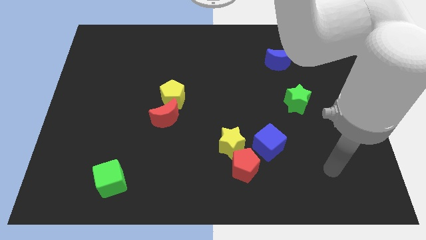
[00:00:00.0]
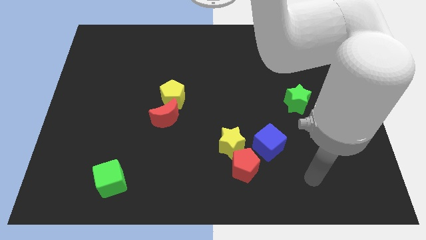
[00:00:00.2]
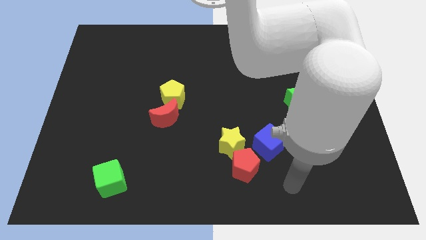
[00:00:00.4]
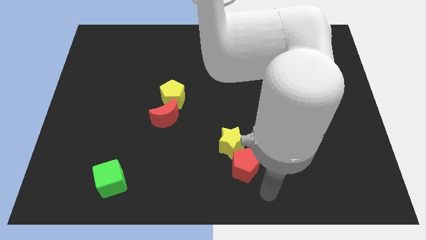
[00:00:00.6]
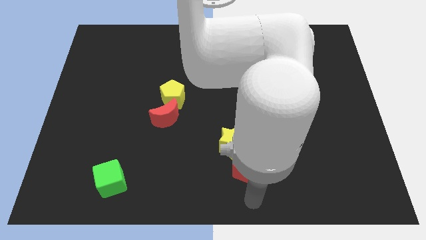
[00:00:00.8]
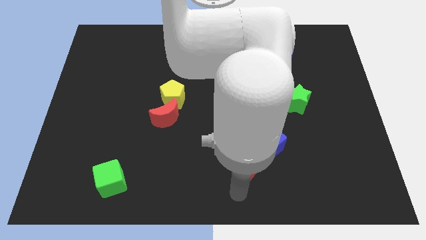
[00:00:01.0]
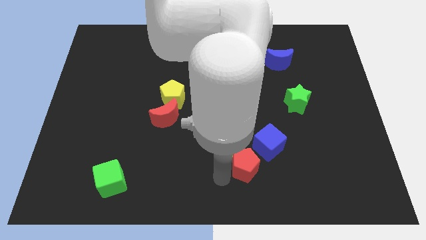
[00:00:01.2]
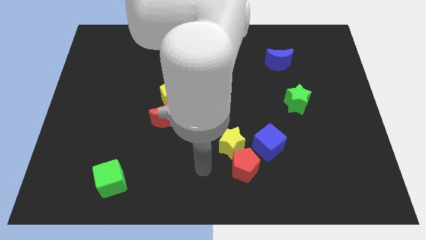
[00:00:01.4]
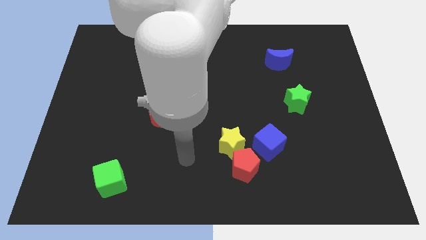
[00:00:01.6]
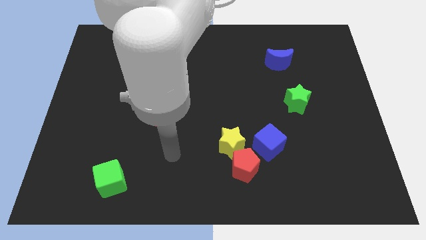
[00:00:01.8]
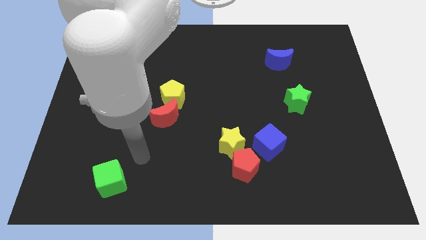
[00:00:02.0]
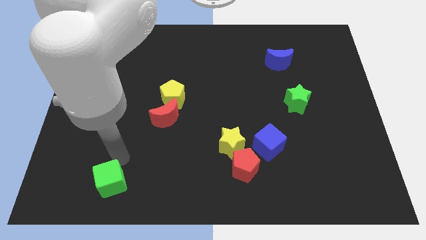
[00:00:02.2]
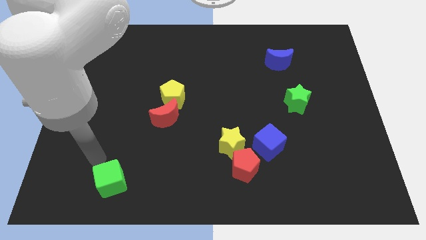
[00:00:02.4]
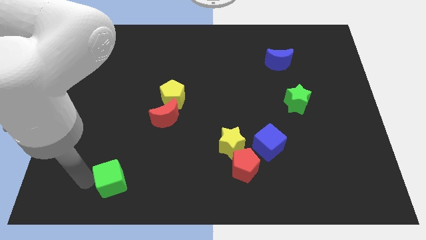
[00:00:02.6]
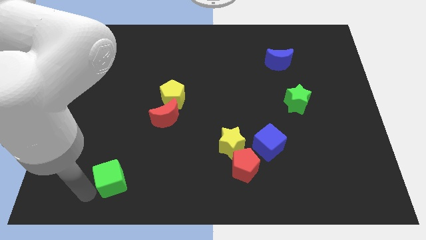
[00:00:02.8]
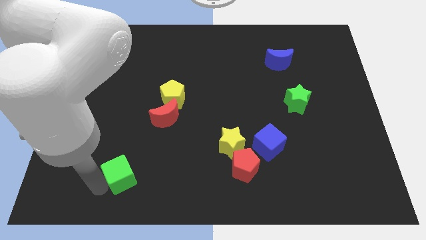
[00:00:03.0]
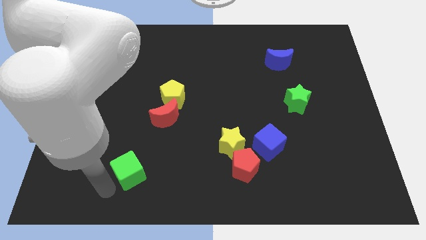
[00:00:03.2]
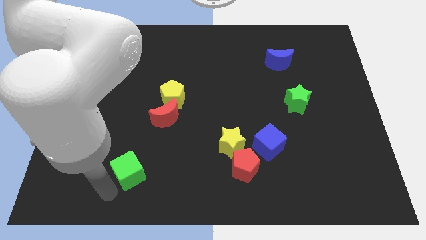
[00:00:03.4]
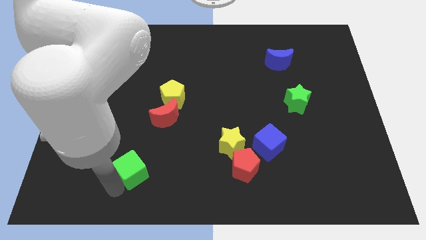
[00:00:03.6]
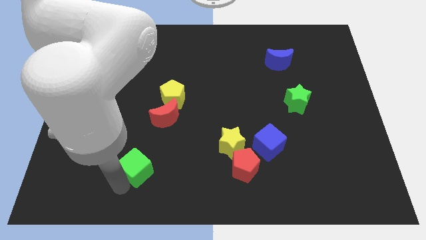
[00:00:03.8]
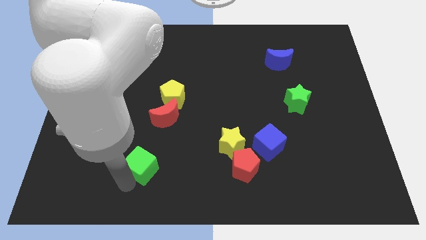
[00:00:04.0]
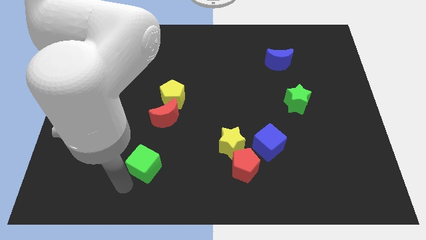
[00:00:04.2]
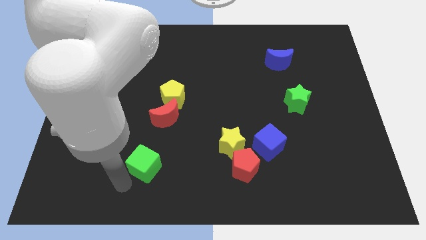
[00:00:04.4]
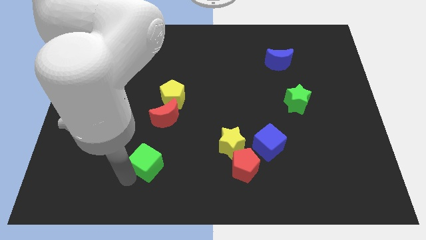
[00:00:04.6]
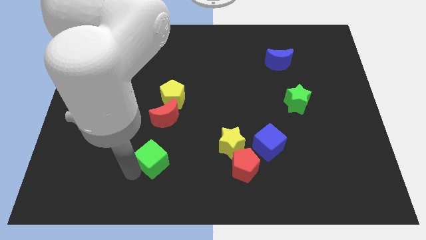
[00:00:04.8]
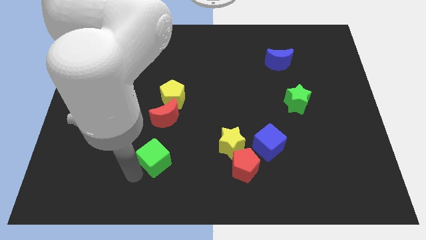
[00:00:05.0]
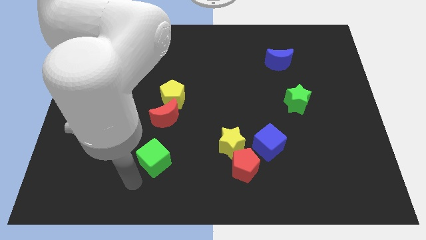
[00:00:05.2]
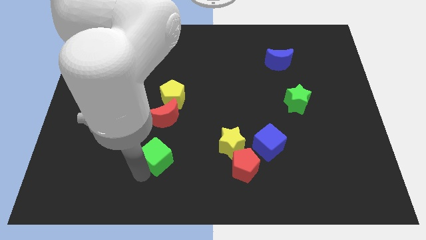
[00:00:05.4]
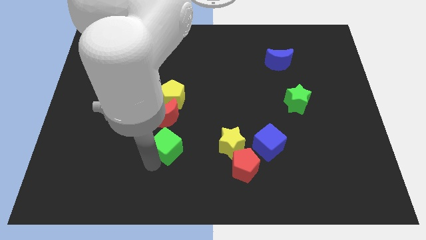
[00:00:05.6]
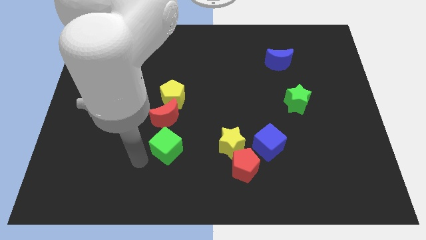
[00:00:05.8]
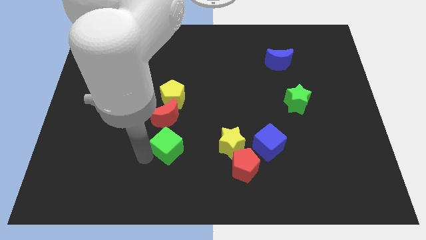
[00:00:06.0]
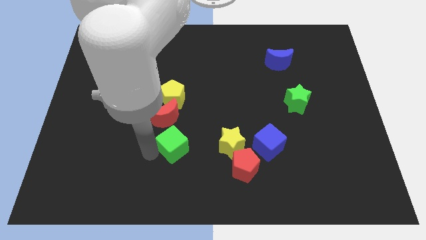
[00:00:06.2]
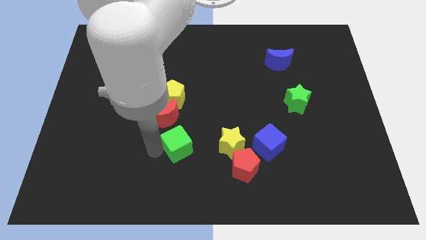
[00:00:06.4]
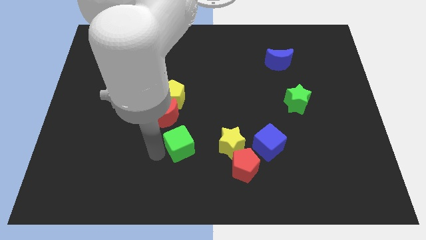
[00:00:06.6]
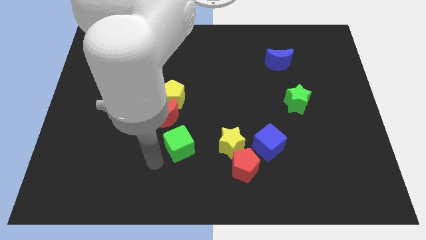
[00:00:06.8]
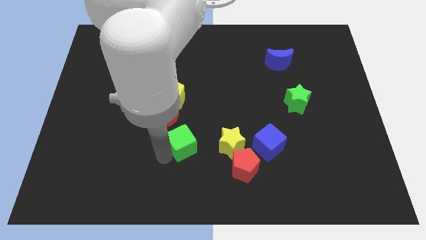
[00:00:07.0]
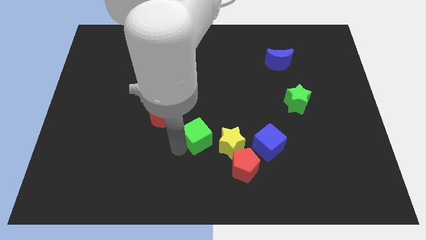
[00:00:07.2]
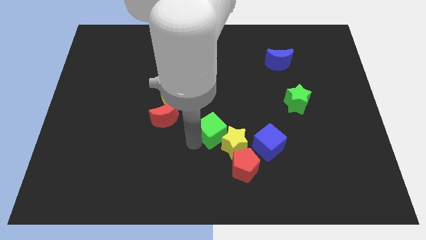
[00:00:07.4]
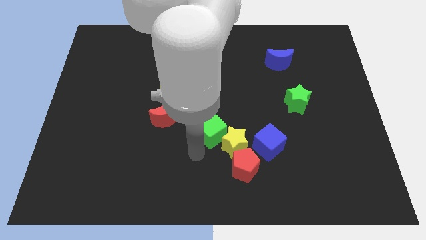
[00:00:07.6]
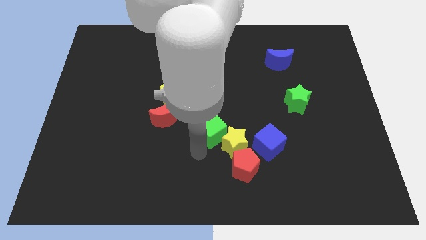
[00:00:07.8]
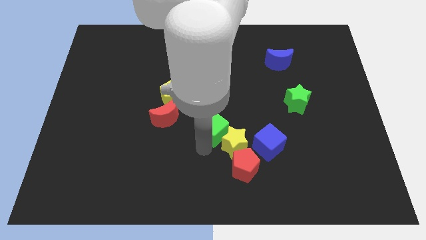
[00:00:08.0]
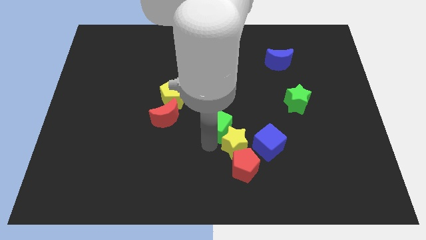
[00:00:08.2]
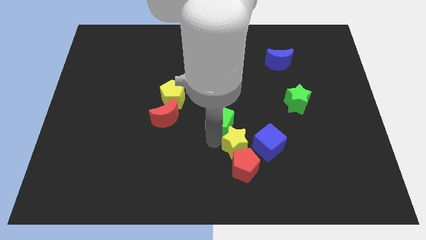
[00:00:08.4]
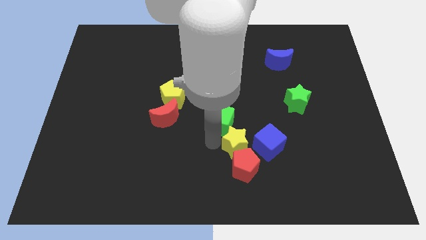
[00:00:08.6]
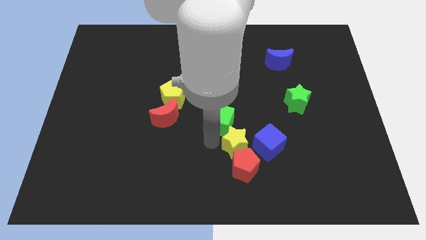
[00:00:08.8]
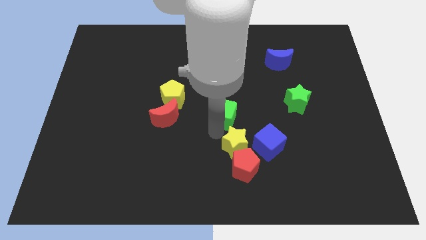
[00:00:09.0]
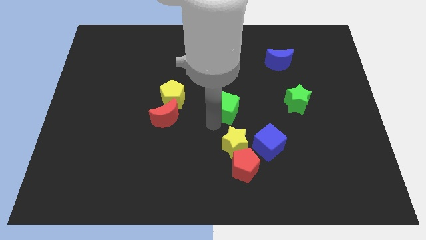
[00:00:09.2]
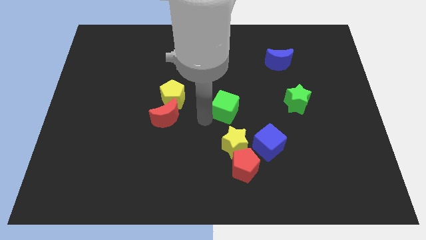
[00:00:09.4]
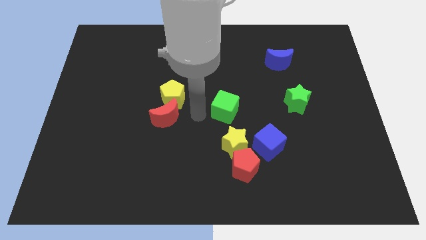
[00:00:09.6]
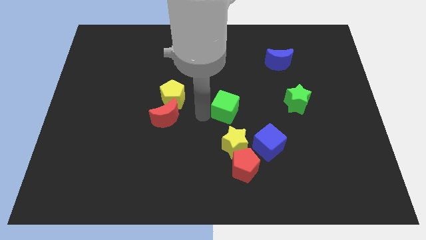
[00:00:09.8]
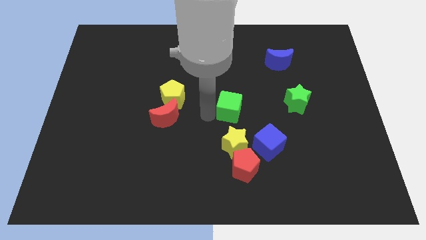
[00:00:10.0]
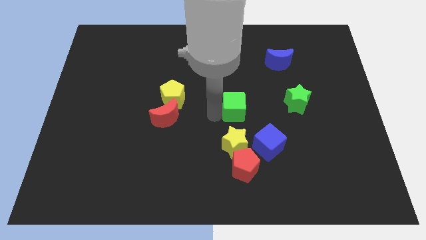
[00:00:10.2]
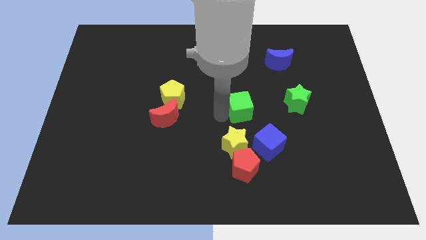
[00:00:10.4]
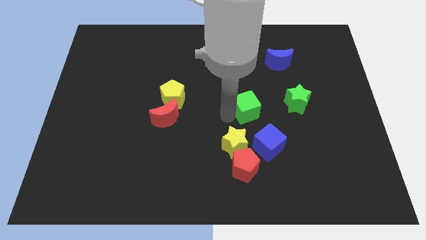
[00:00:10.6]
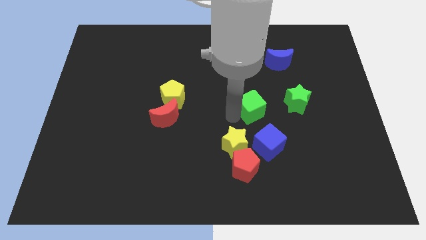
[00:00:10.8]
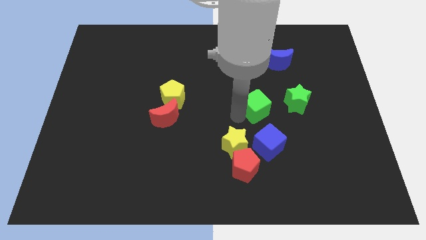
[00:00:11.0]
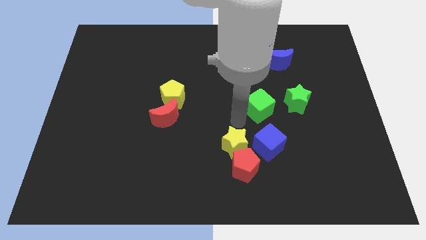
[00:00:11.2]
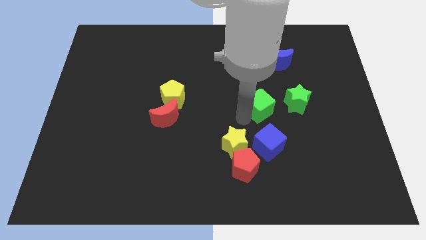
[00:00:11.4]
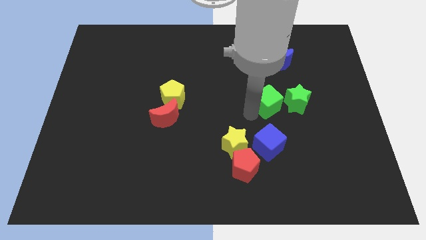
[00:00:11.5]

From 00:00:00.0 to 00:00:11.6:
slide the green cube to the bottom of the blue moon

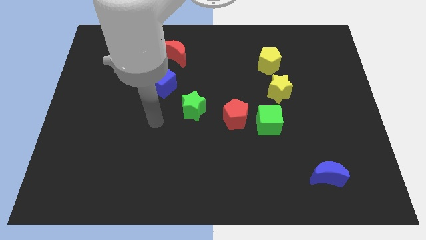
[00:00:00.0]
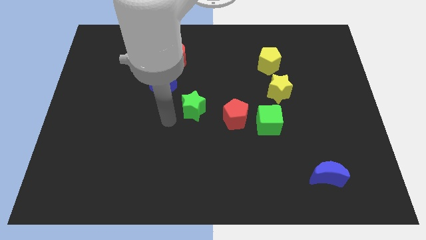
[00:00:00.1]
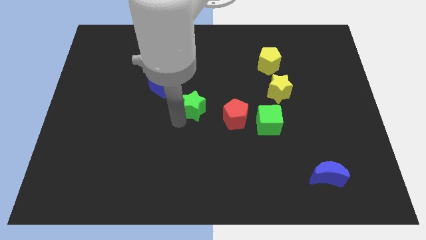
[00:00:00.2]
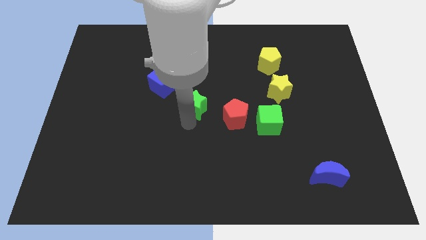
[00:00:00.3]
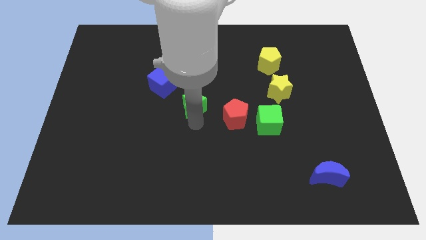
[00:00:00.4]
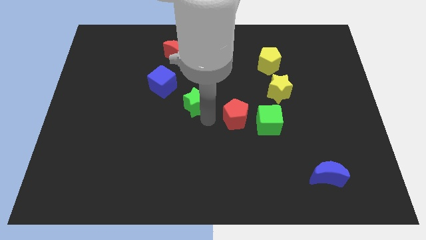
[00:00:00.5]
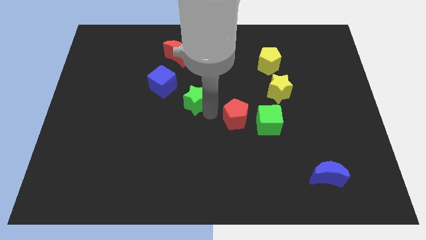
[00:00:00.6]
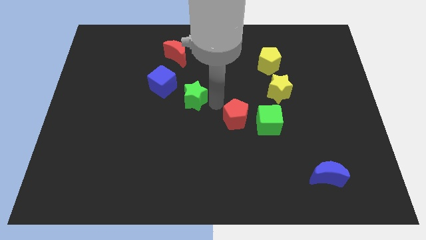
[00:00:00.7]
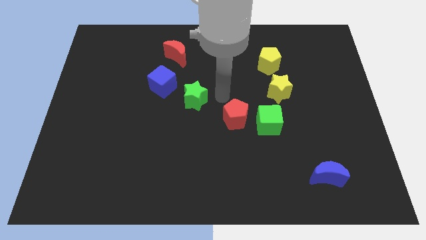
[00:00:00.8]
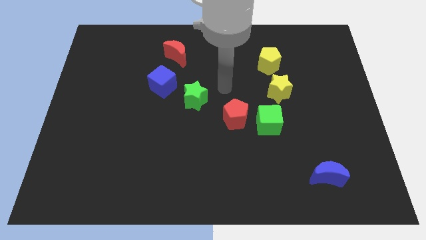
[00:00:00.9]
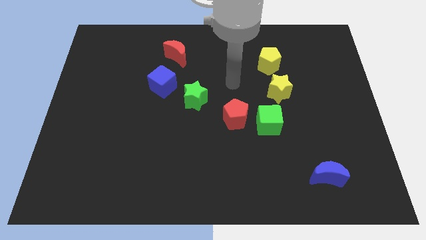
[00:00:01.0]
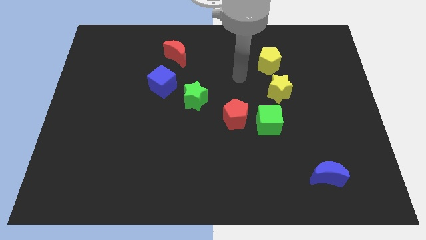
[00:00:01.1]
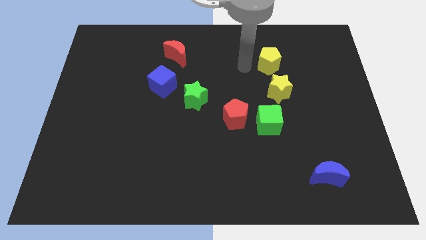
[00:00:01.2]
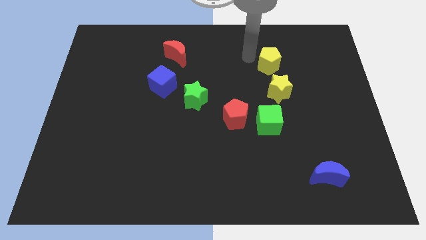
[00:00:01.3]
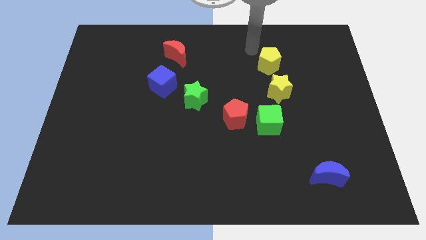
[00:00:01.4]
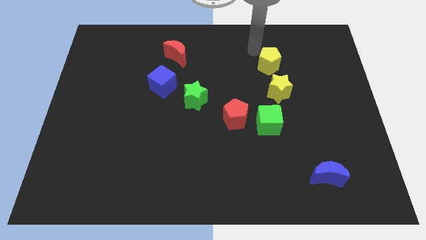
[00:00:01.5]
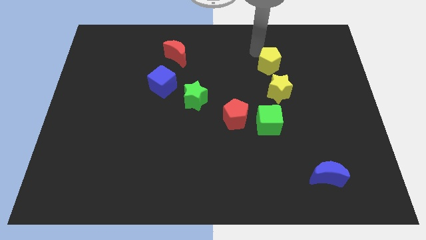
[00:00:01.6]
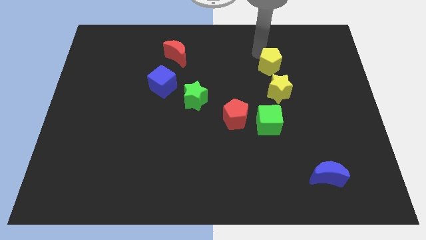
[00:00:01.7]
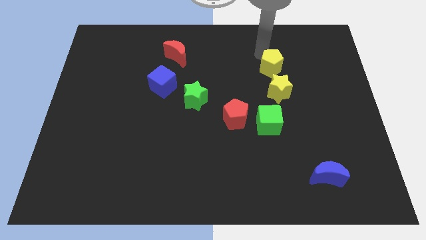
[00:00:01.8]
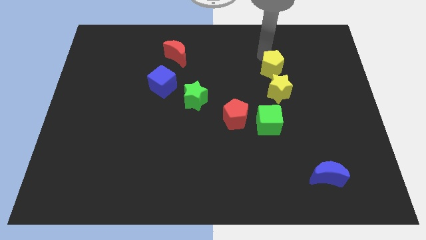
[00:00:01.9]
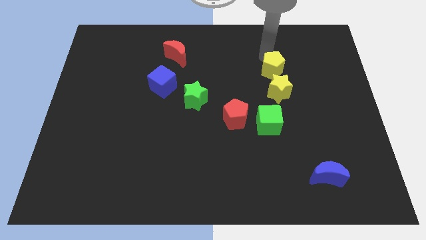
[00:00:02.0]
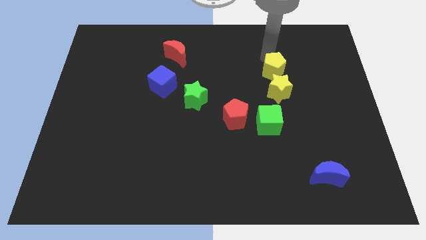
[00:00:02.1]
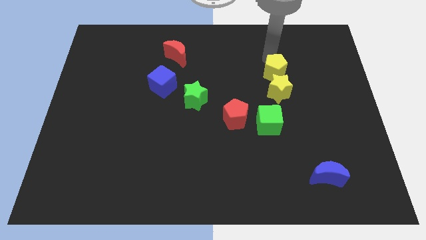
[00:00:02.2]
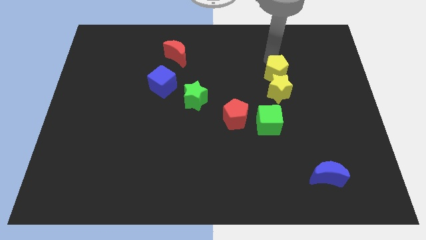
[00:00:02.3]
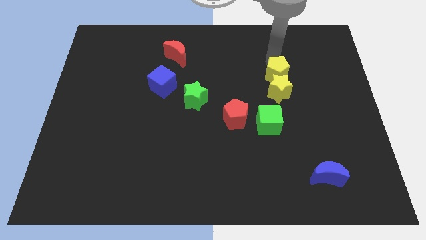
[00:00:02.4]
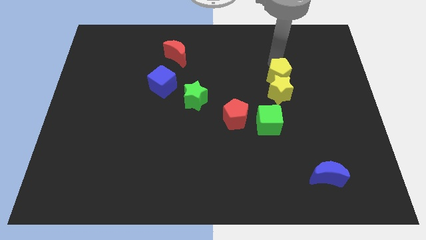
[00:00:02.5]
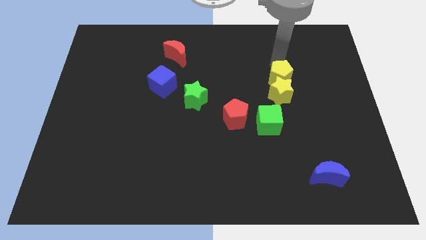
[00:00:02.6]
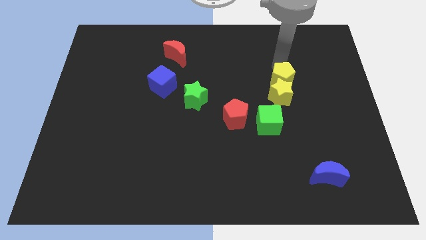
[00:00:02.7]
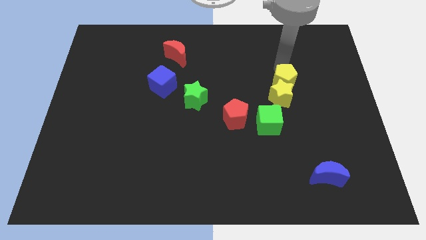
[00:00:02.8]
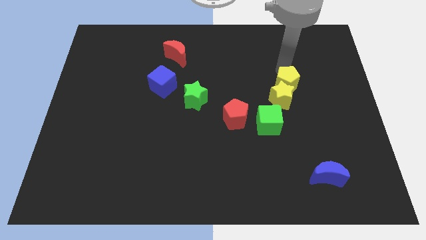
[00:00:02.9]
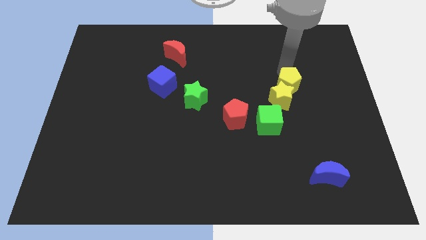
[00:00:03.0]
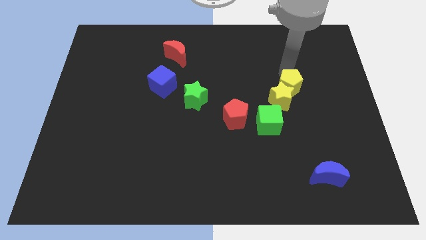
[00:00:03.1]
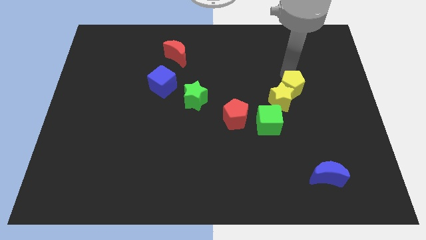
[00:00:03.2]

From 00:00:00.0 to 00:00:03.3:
push the yellow pentagon diagonally up and to the right of the green cube
